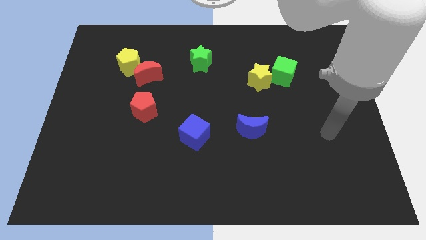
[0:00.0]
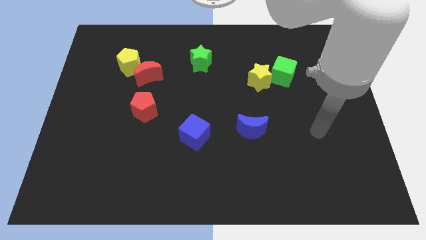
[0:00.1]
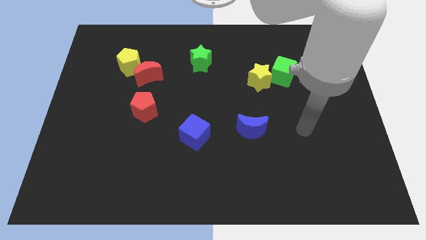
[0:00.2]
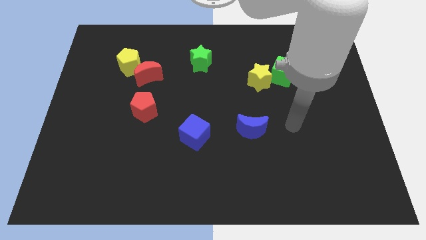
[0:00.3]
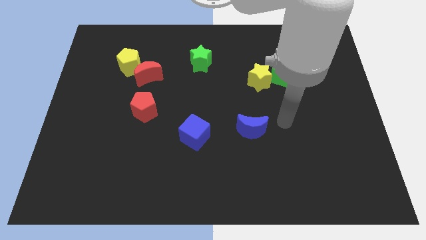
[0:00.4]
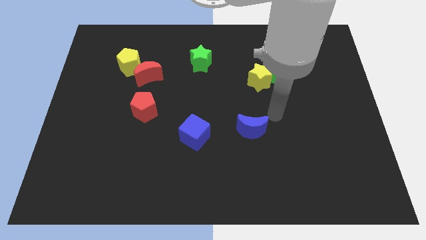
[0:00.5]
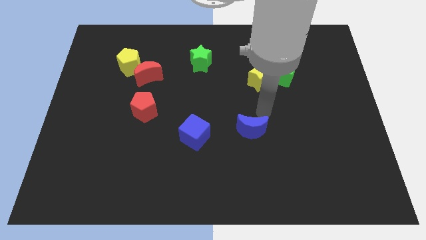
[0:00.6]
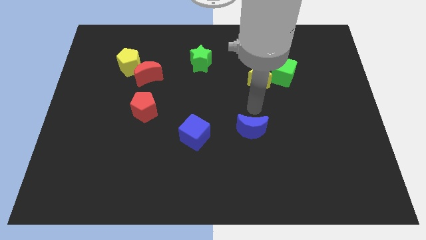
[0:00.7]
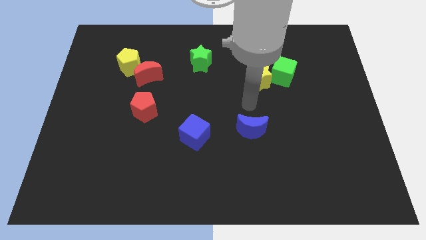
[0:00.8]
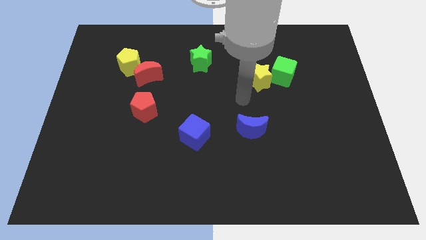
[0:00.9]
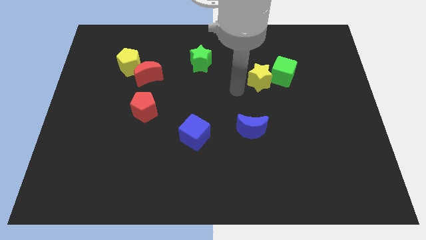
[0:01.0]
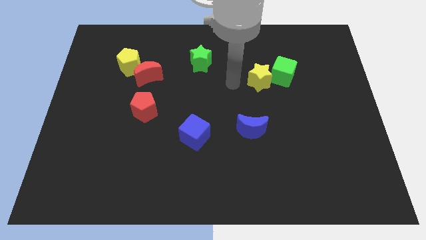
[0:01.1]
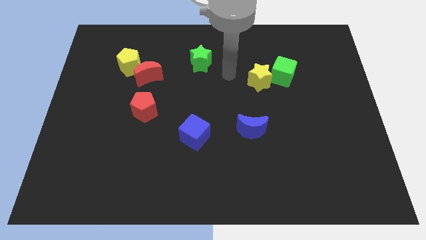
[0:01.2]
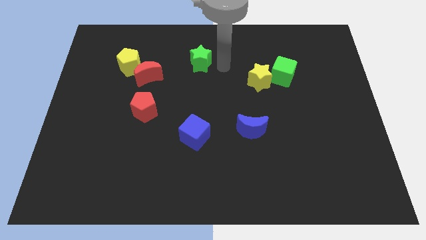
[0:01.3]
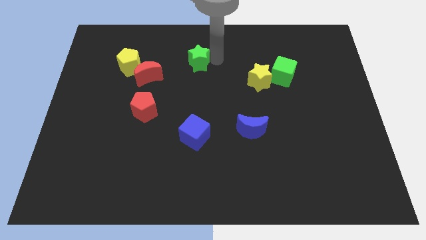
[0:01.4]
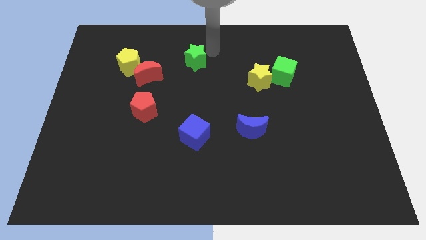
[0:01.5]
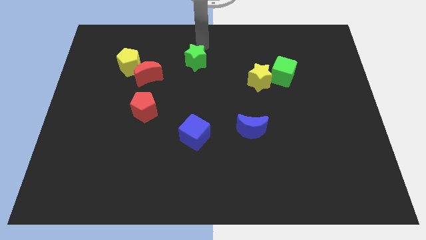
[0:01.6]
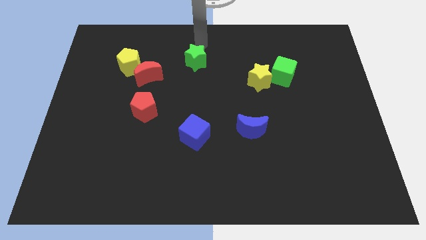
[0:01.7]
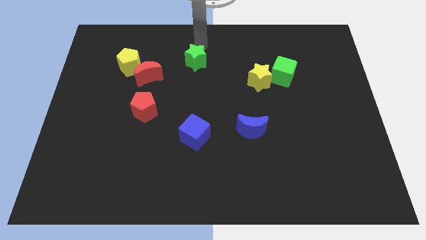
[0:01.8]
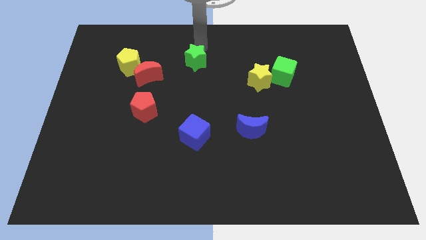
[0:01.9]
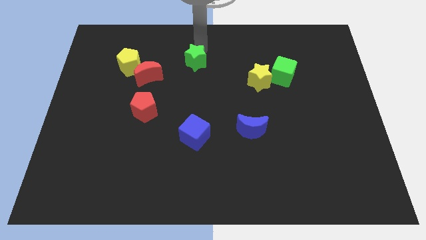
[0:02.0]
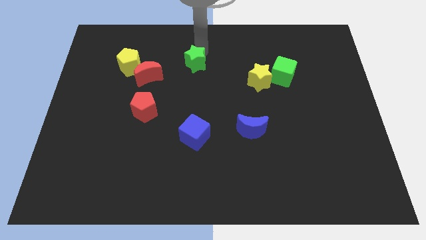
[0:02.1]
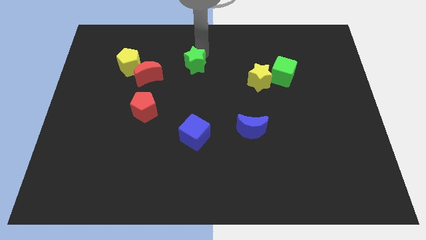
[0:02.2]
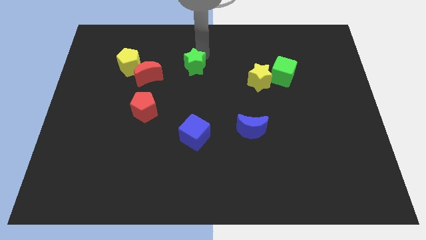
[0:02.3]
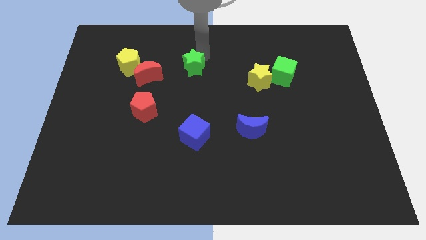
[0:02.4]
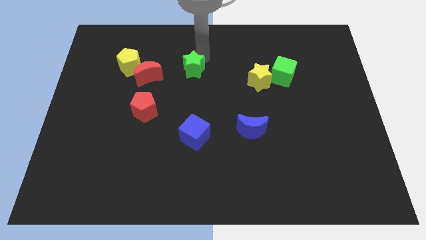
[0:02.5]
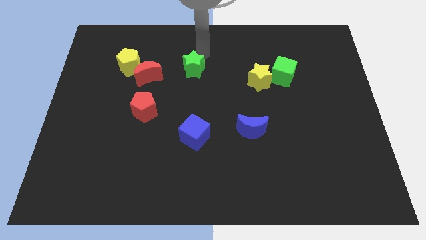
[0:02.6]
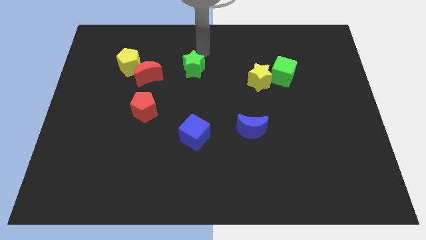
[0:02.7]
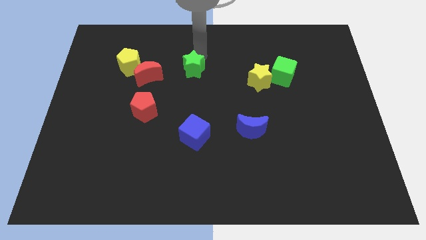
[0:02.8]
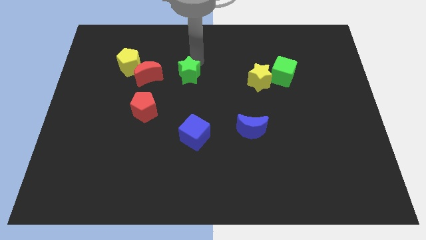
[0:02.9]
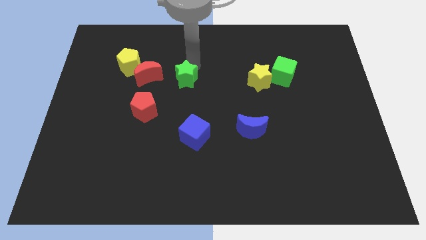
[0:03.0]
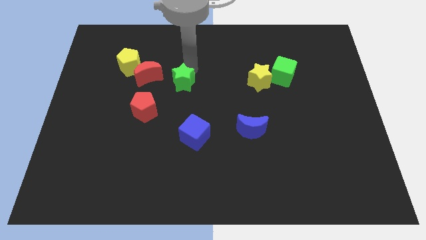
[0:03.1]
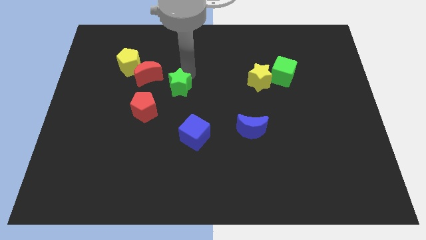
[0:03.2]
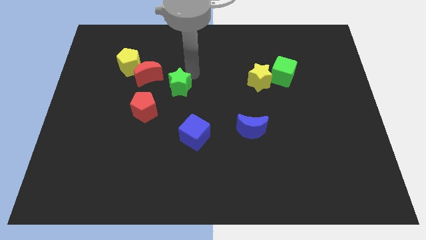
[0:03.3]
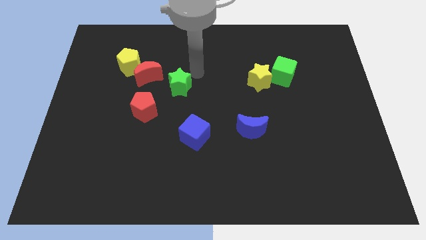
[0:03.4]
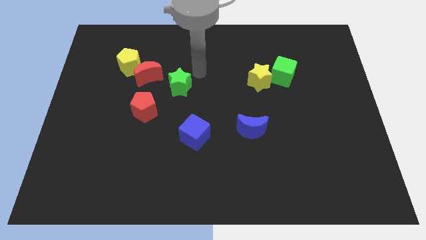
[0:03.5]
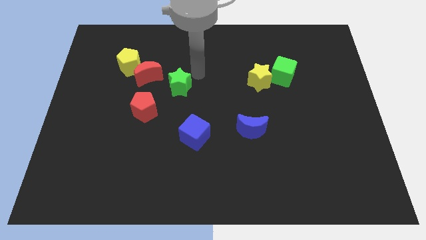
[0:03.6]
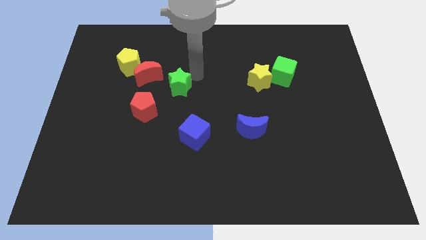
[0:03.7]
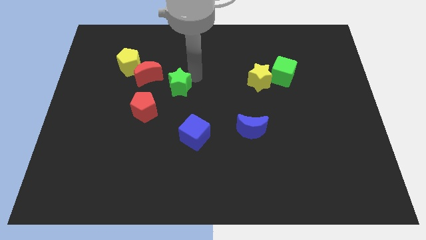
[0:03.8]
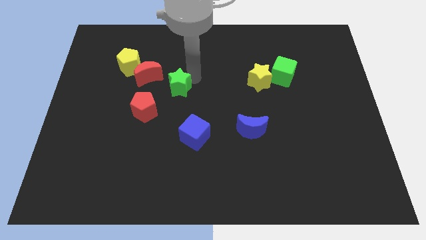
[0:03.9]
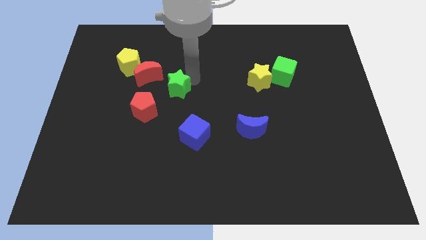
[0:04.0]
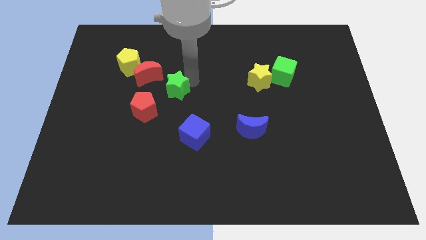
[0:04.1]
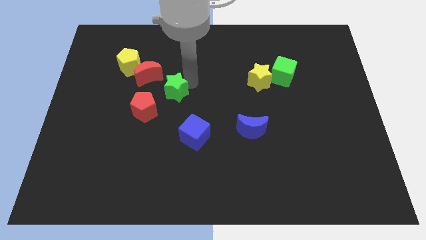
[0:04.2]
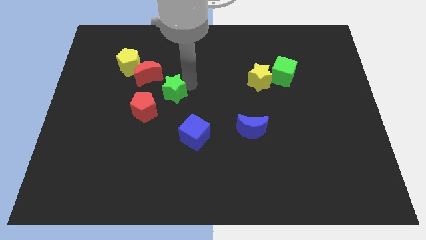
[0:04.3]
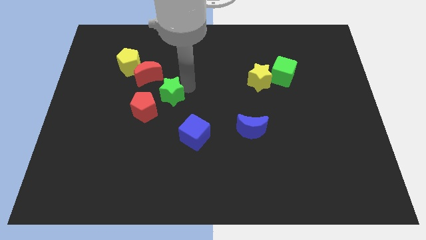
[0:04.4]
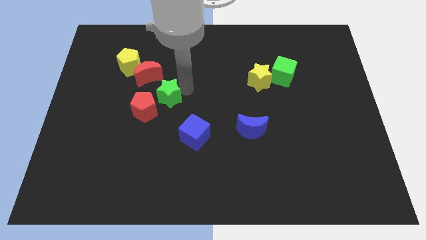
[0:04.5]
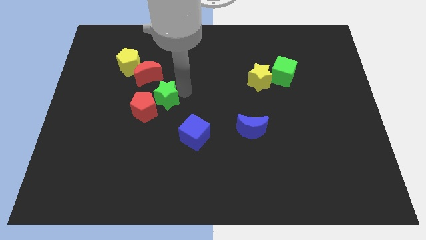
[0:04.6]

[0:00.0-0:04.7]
slide the green star next to the red pentagon

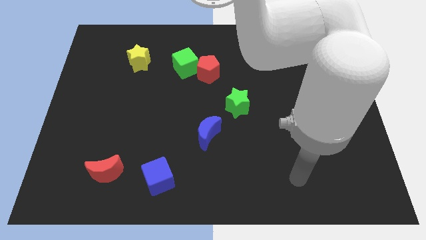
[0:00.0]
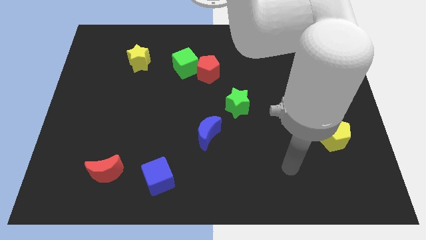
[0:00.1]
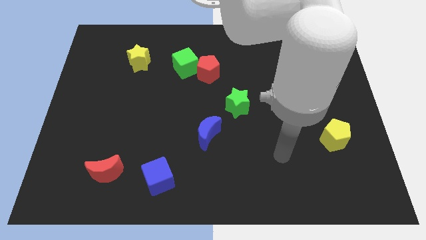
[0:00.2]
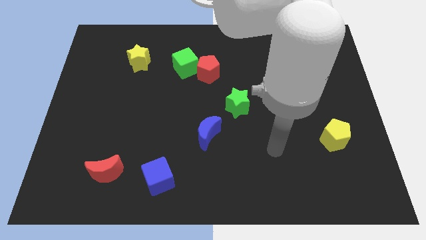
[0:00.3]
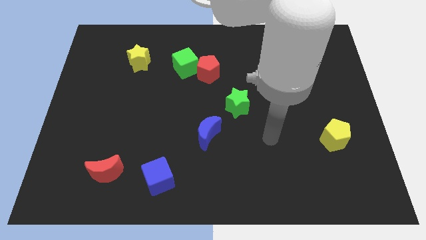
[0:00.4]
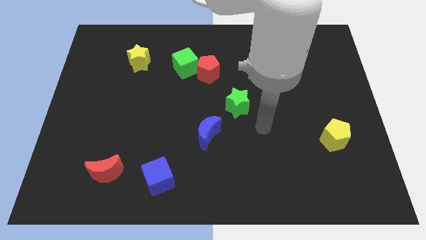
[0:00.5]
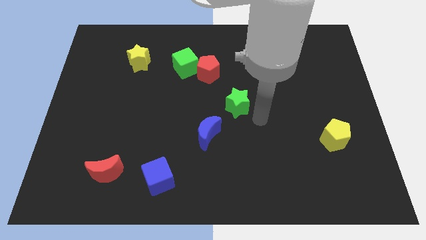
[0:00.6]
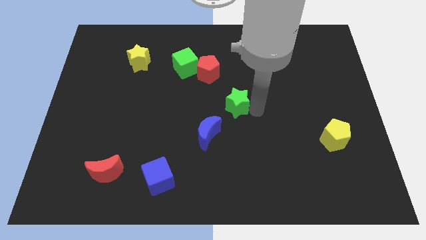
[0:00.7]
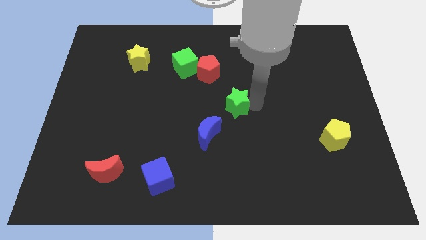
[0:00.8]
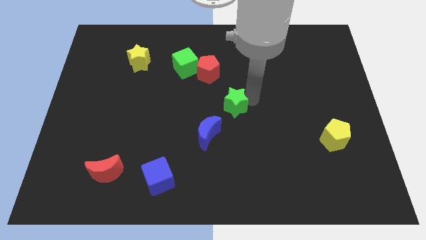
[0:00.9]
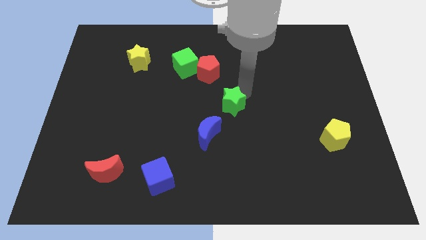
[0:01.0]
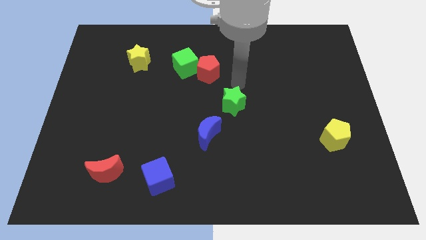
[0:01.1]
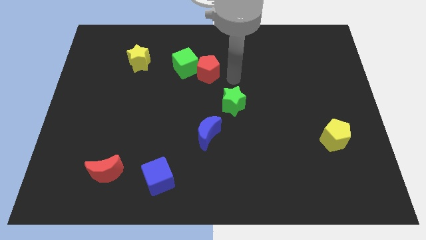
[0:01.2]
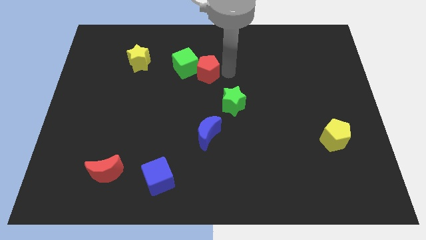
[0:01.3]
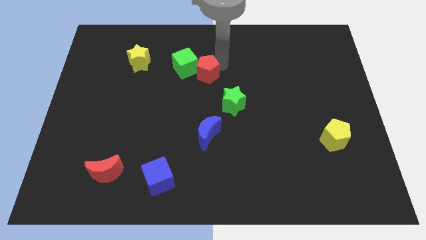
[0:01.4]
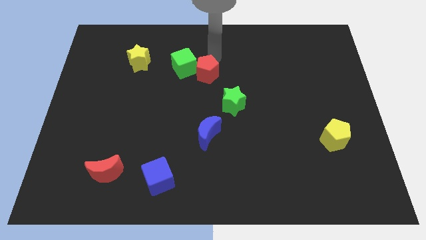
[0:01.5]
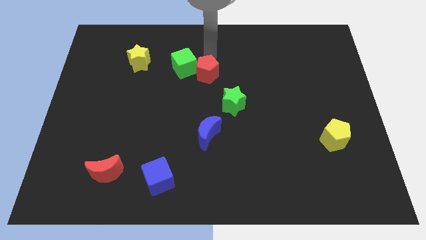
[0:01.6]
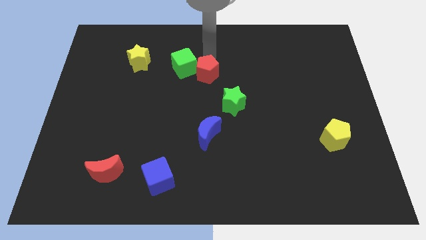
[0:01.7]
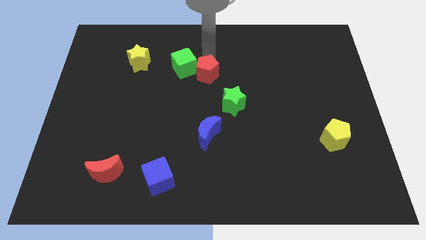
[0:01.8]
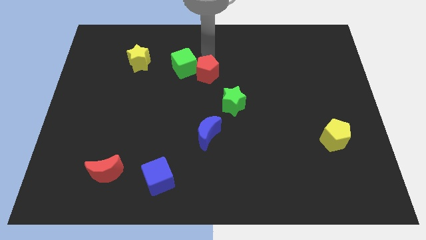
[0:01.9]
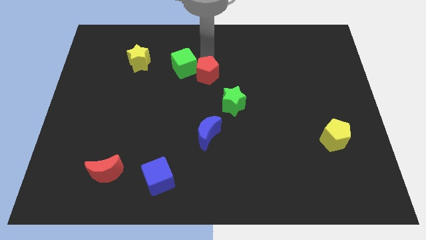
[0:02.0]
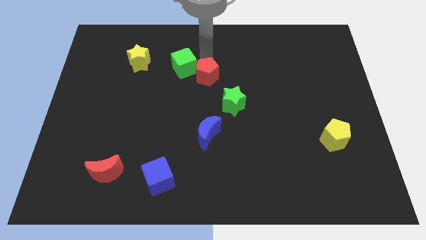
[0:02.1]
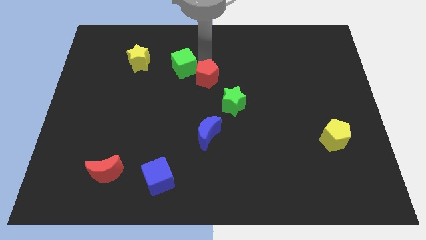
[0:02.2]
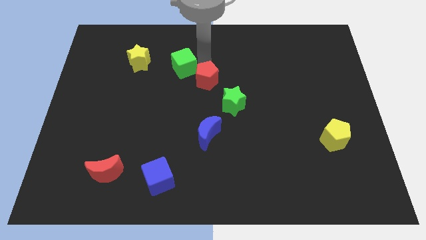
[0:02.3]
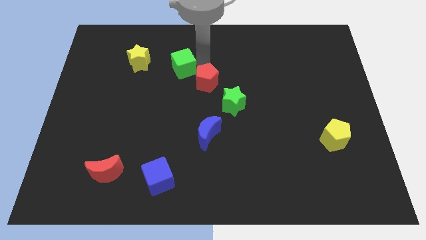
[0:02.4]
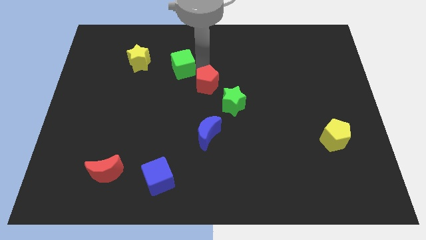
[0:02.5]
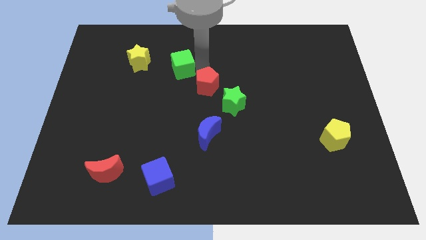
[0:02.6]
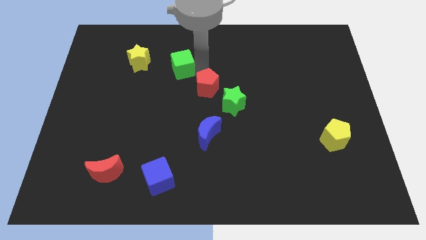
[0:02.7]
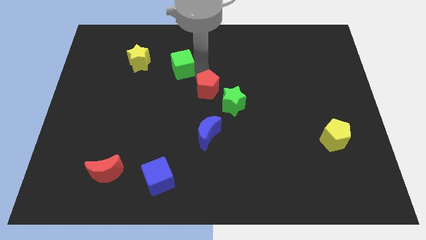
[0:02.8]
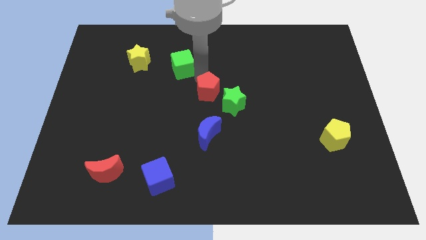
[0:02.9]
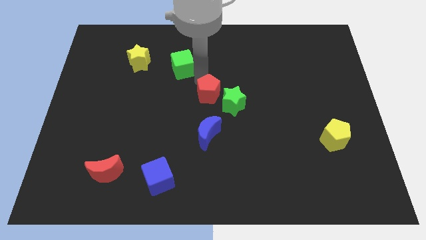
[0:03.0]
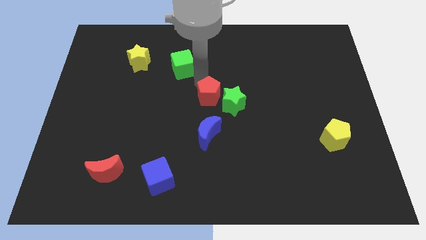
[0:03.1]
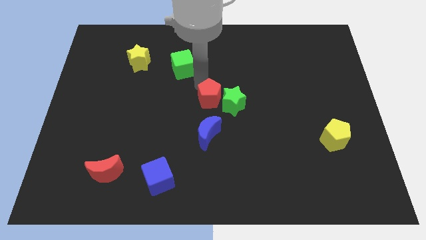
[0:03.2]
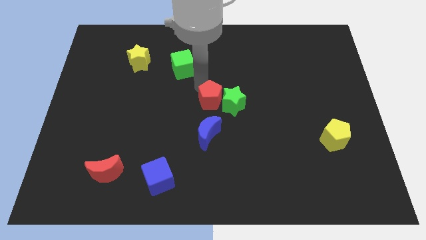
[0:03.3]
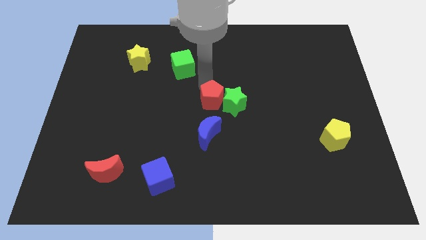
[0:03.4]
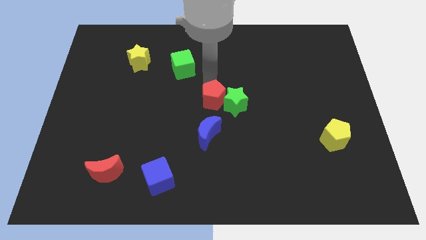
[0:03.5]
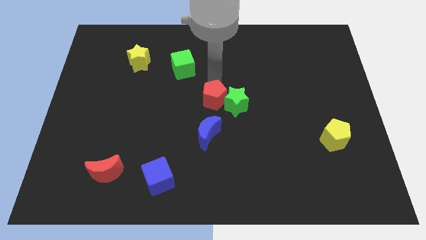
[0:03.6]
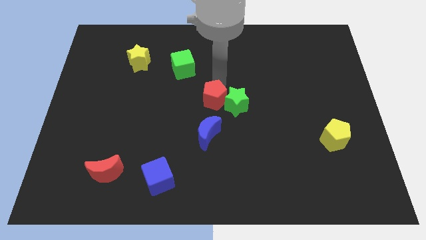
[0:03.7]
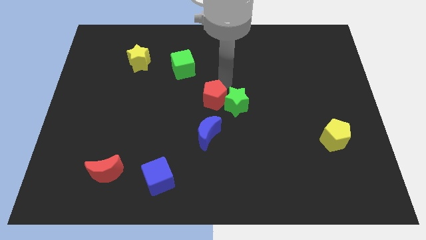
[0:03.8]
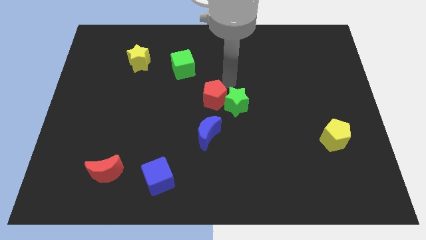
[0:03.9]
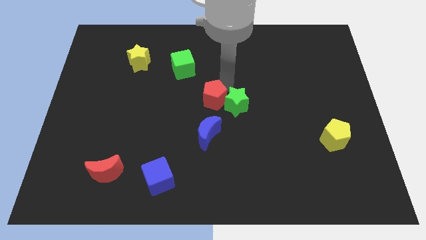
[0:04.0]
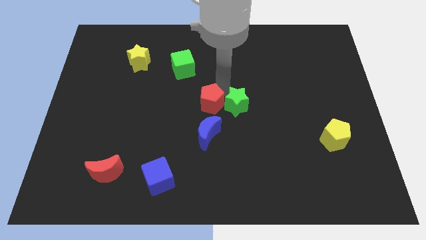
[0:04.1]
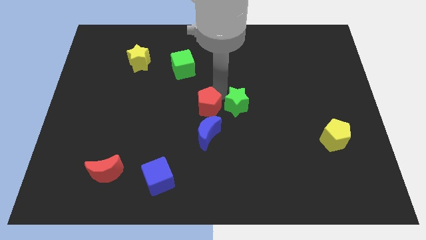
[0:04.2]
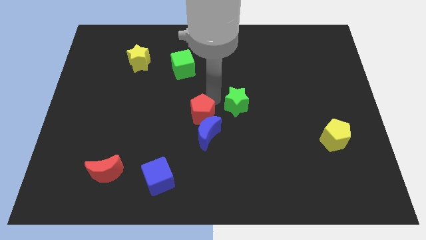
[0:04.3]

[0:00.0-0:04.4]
slide the red pentagon next to the blue moon
